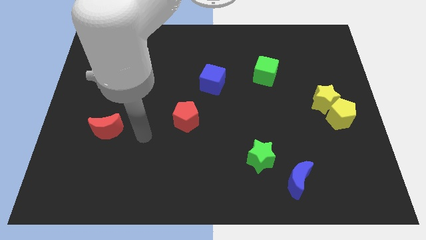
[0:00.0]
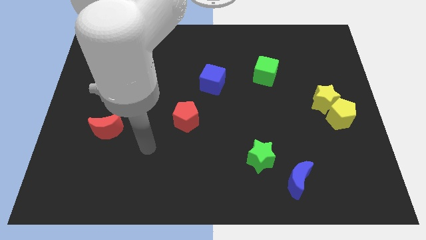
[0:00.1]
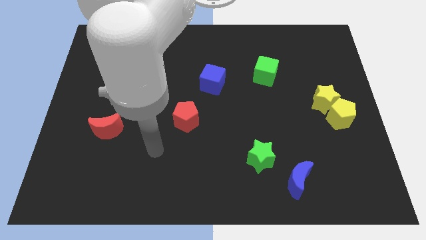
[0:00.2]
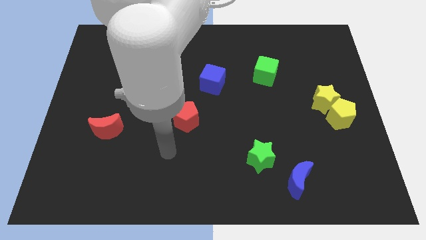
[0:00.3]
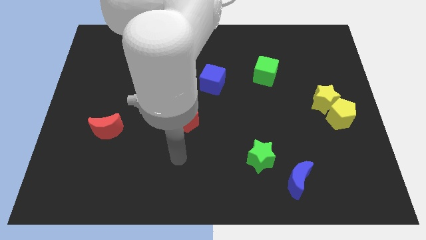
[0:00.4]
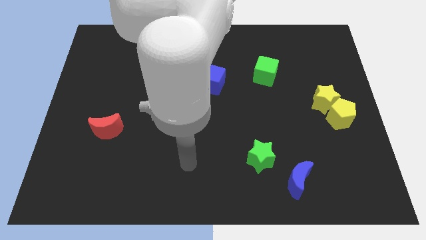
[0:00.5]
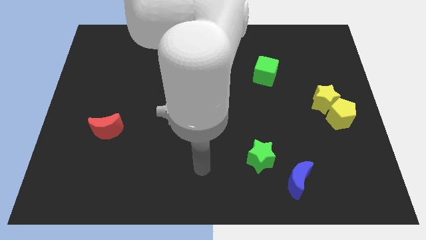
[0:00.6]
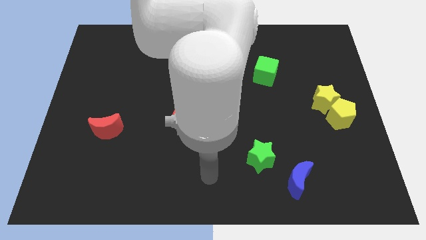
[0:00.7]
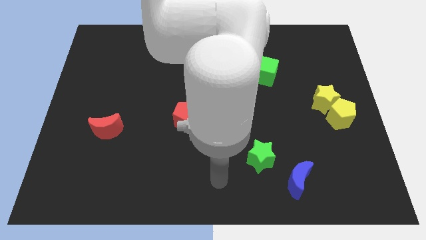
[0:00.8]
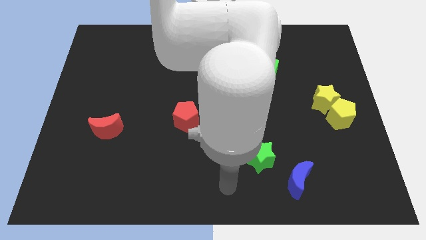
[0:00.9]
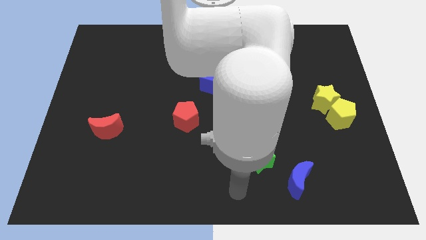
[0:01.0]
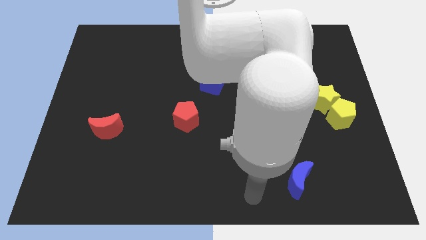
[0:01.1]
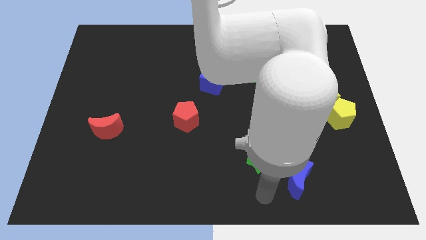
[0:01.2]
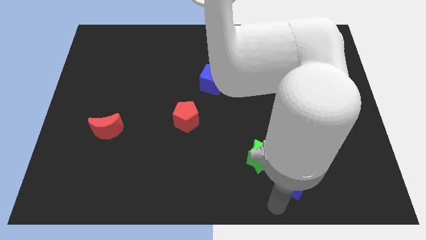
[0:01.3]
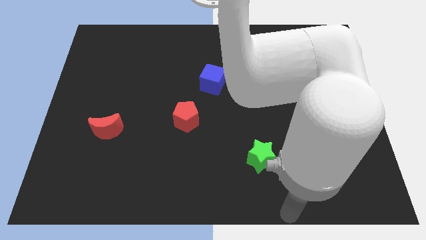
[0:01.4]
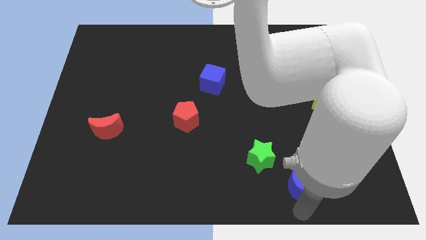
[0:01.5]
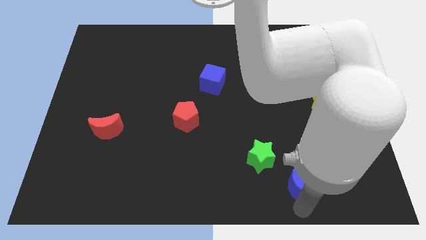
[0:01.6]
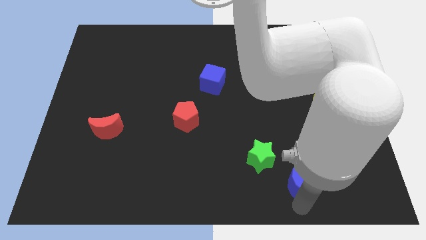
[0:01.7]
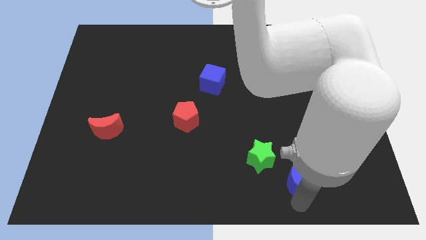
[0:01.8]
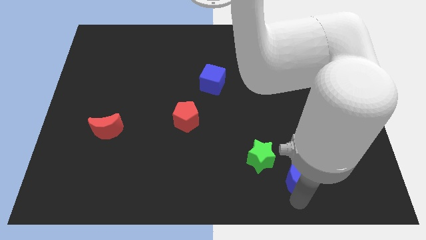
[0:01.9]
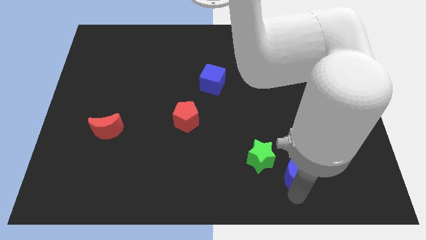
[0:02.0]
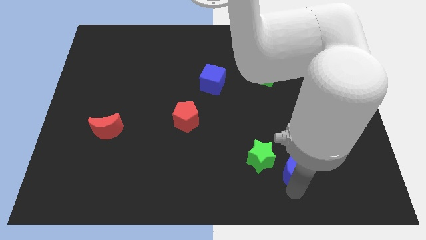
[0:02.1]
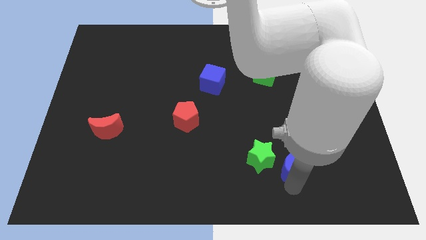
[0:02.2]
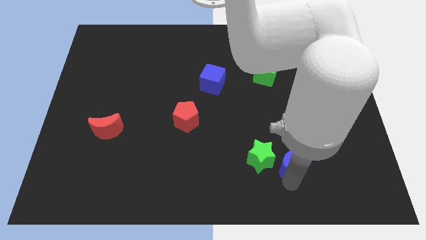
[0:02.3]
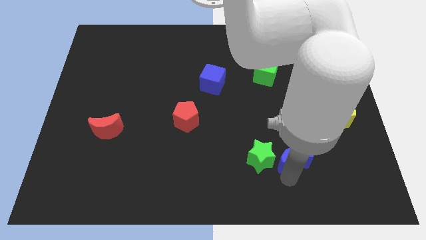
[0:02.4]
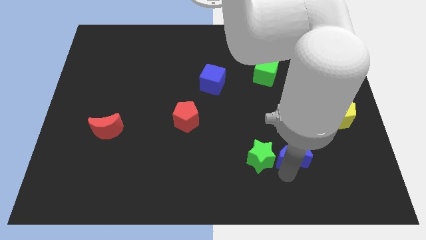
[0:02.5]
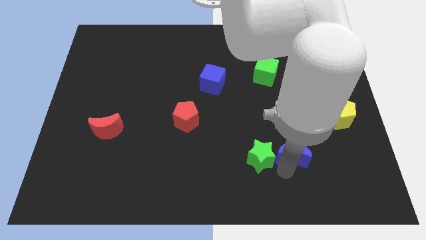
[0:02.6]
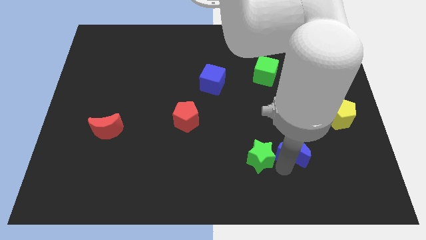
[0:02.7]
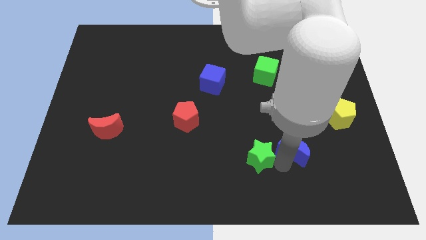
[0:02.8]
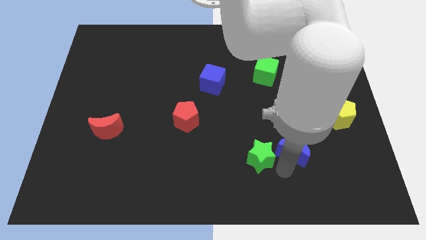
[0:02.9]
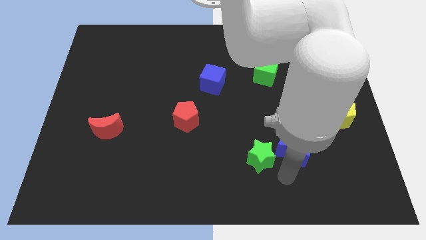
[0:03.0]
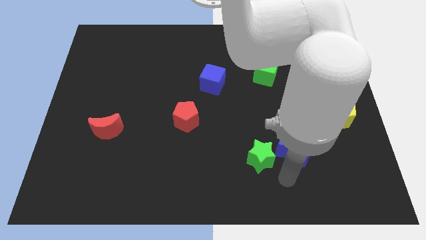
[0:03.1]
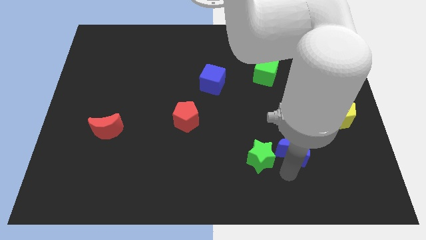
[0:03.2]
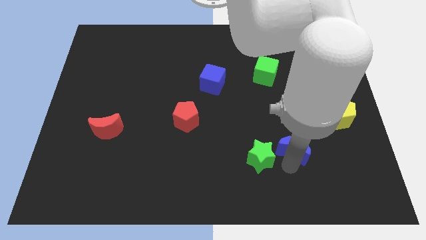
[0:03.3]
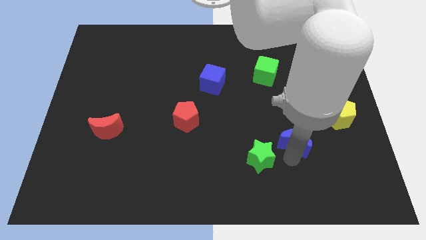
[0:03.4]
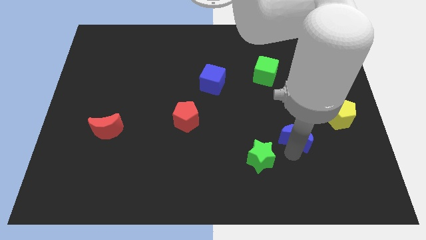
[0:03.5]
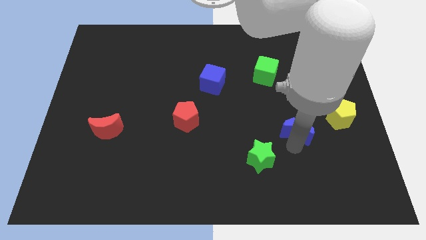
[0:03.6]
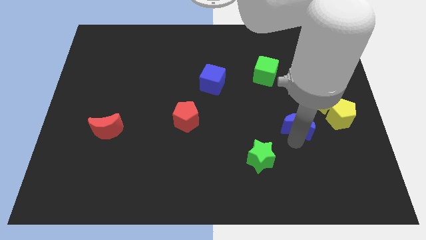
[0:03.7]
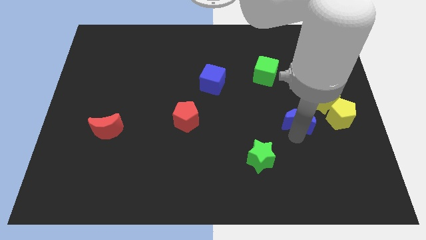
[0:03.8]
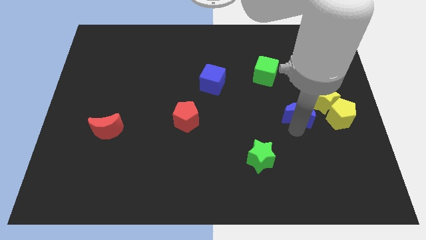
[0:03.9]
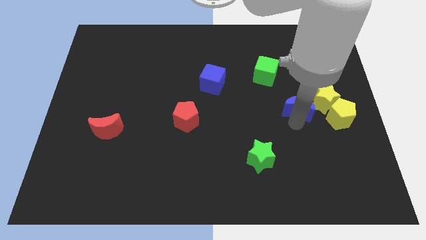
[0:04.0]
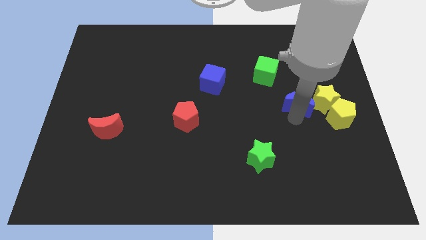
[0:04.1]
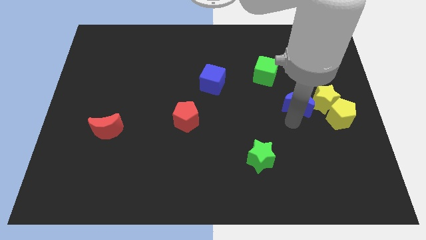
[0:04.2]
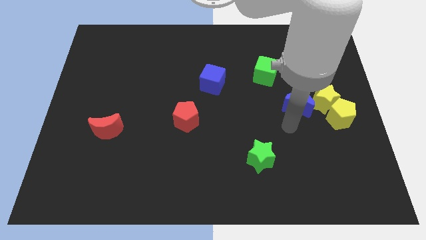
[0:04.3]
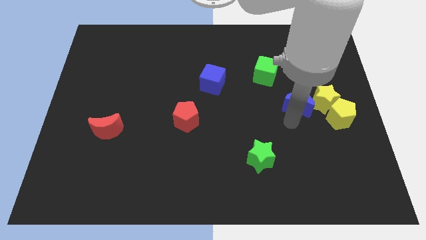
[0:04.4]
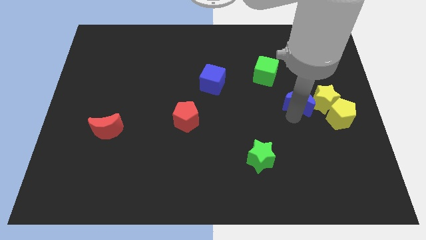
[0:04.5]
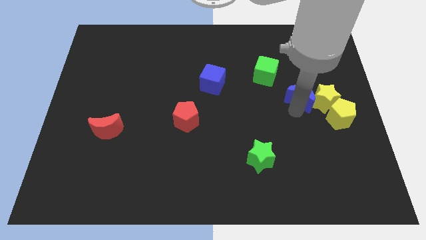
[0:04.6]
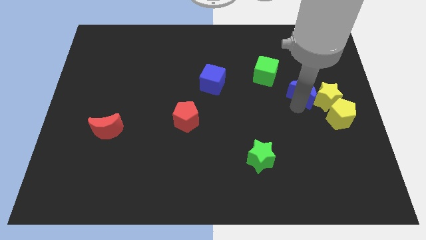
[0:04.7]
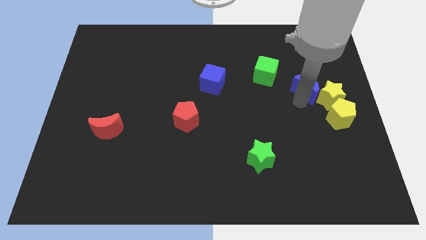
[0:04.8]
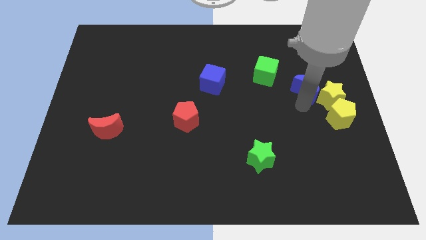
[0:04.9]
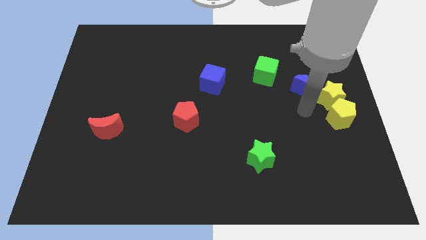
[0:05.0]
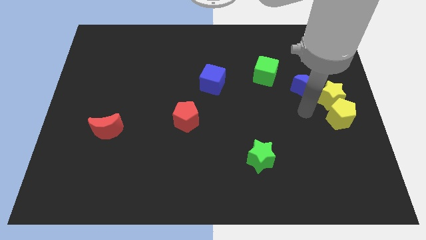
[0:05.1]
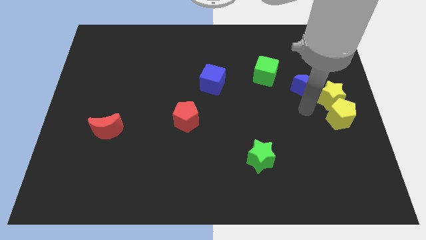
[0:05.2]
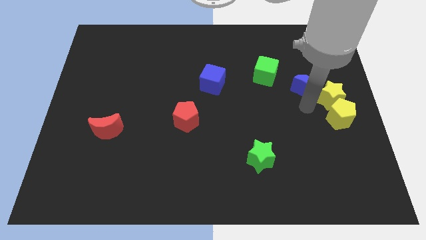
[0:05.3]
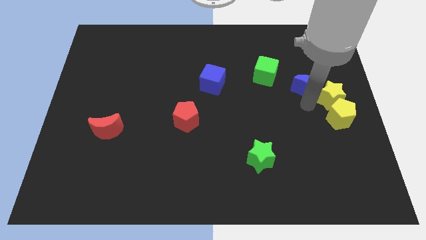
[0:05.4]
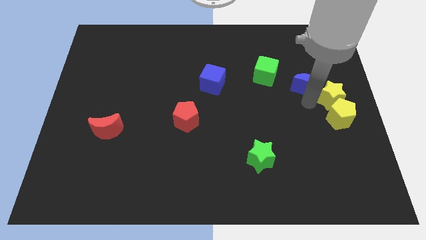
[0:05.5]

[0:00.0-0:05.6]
put the blue moon to the right of the green cube

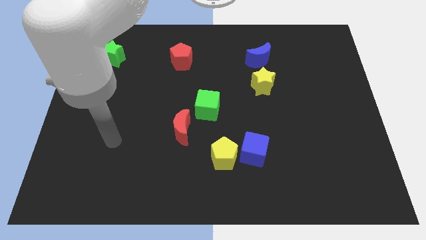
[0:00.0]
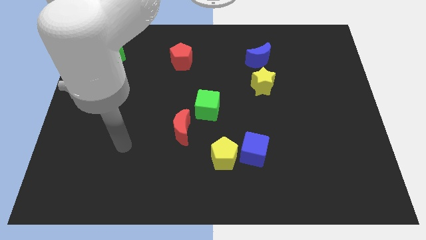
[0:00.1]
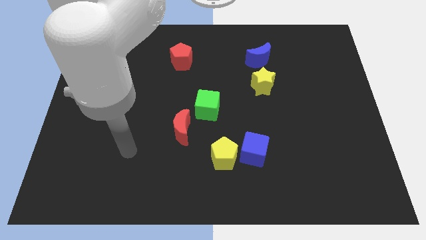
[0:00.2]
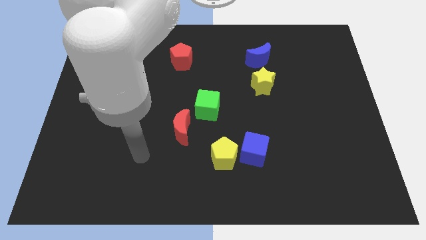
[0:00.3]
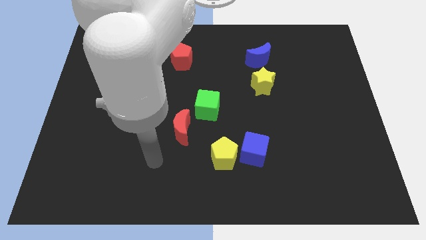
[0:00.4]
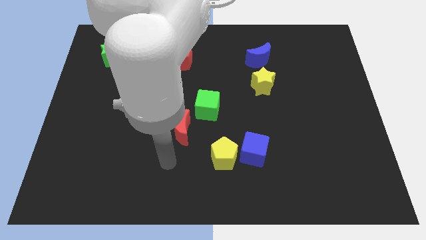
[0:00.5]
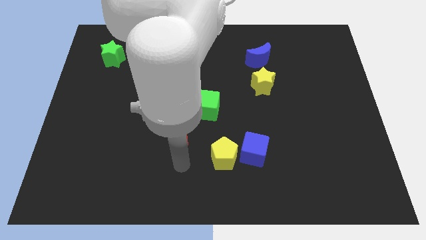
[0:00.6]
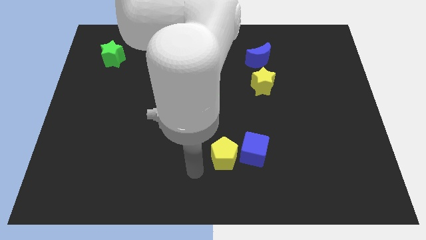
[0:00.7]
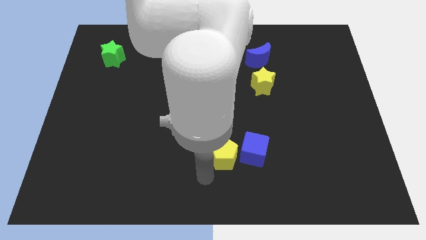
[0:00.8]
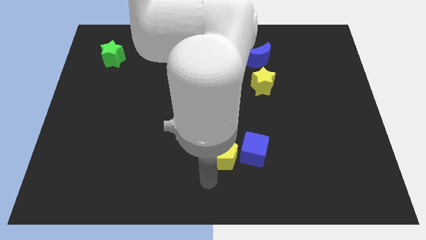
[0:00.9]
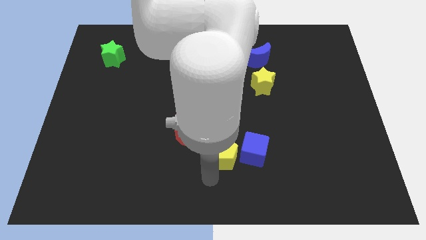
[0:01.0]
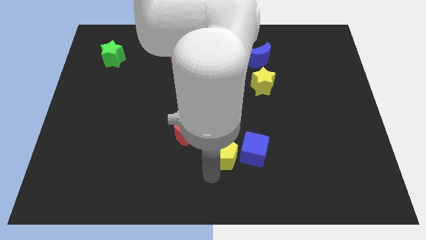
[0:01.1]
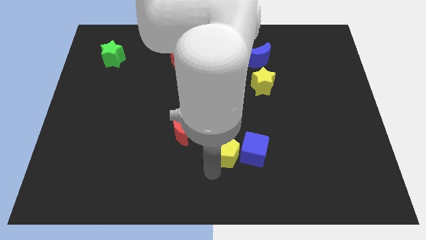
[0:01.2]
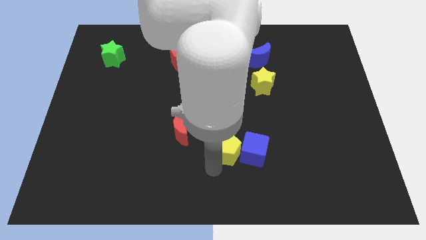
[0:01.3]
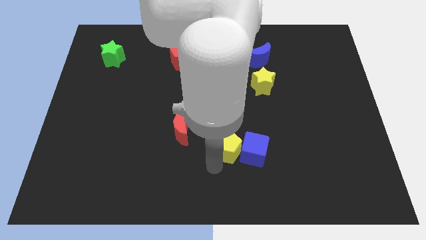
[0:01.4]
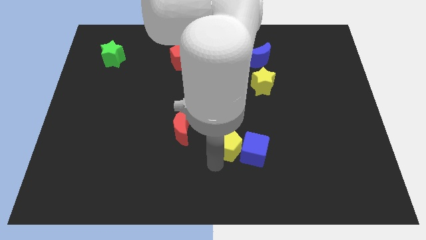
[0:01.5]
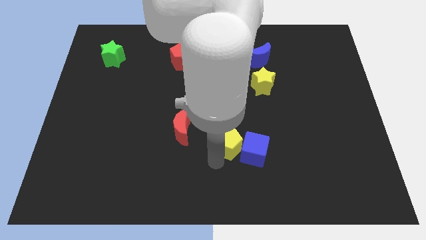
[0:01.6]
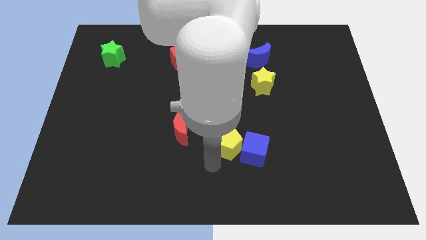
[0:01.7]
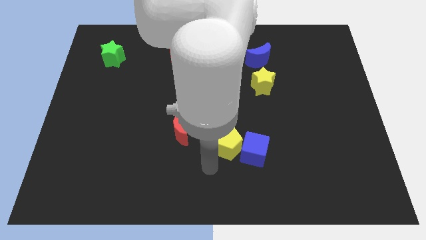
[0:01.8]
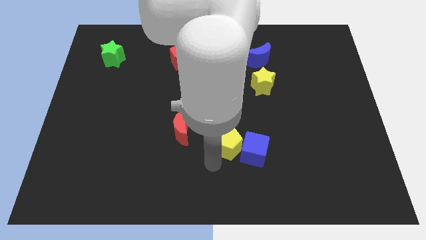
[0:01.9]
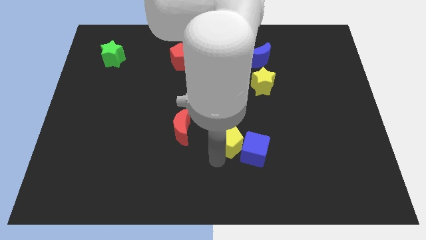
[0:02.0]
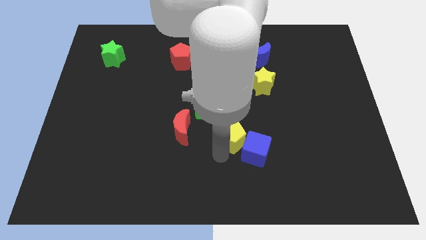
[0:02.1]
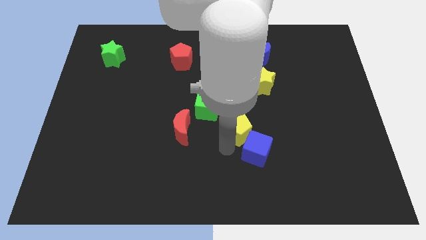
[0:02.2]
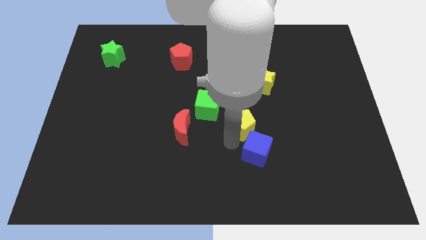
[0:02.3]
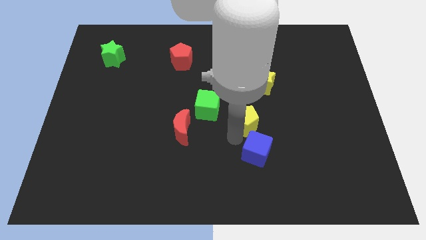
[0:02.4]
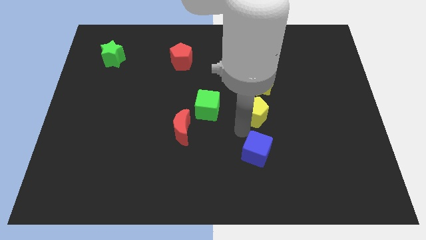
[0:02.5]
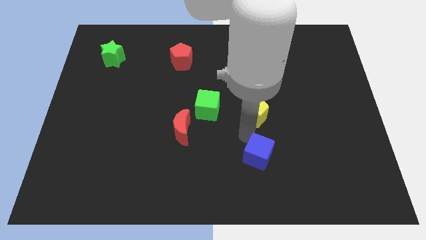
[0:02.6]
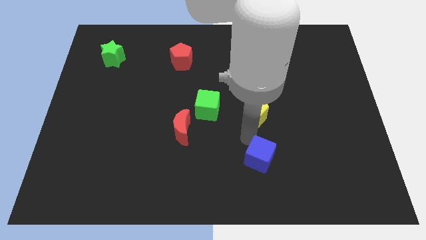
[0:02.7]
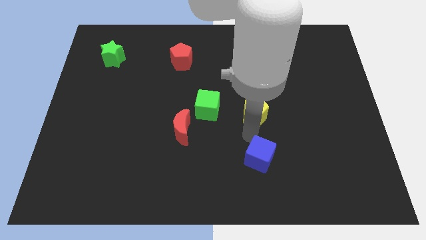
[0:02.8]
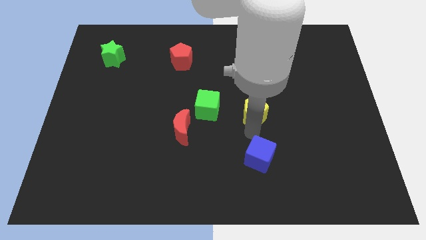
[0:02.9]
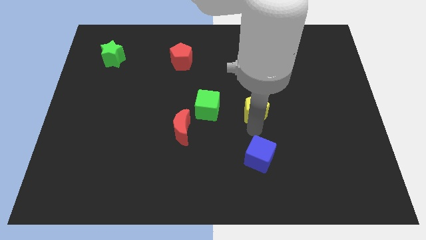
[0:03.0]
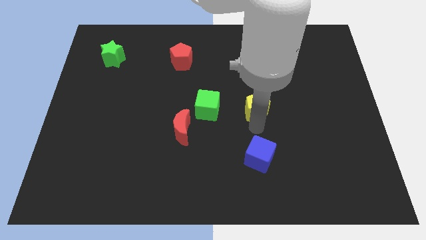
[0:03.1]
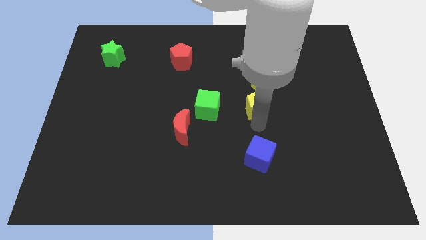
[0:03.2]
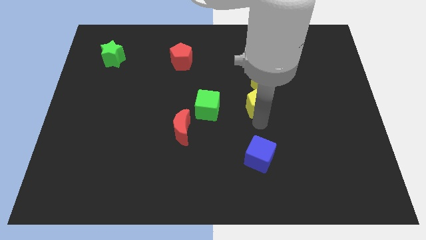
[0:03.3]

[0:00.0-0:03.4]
move the yellow pentagon to the bottom of the blue moon
